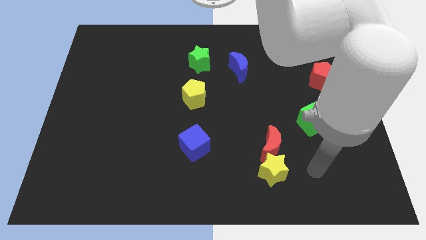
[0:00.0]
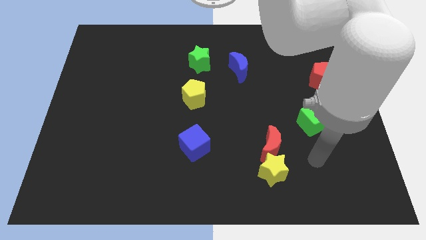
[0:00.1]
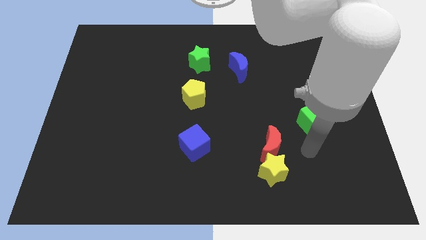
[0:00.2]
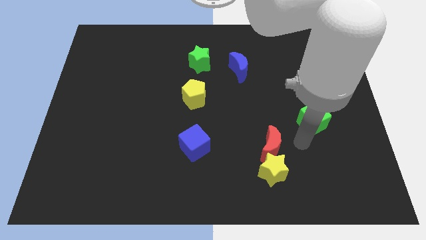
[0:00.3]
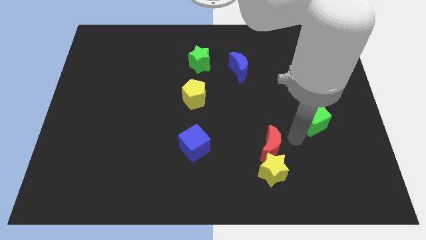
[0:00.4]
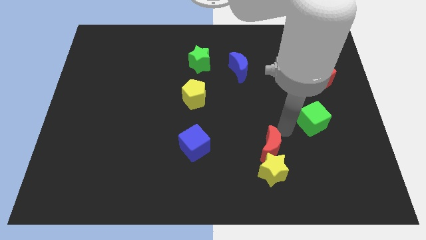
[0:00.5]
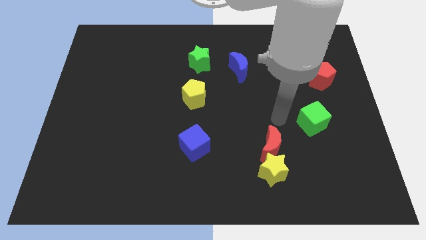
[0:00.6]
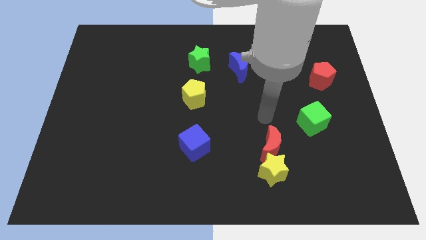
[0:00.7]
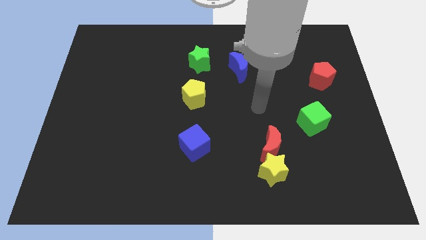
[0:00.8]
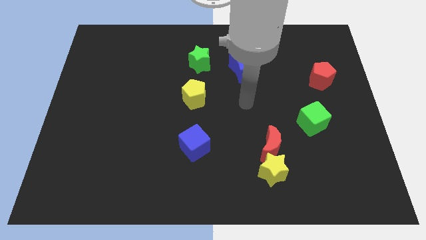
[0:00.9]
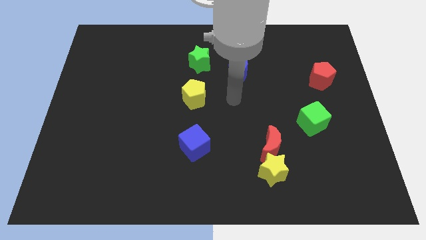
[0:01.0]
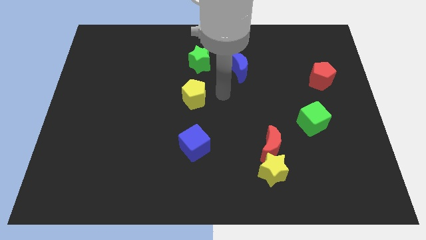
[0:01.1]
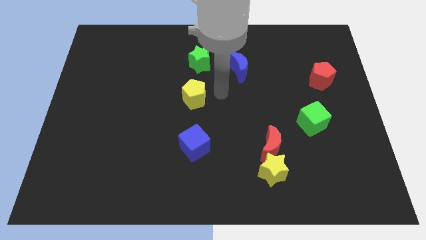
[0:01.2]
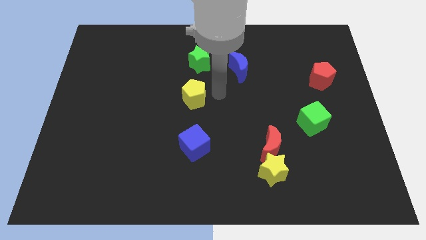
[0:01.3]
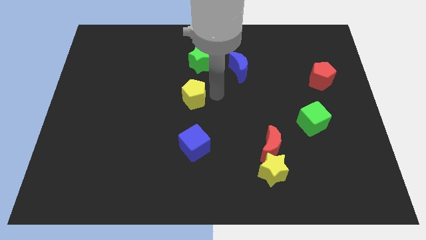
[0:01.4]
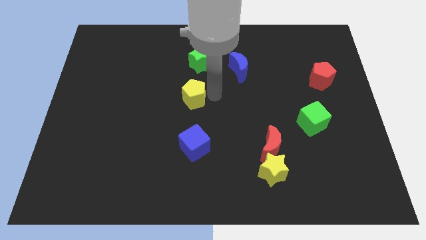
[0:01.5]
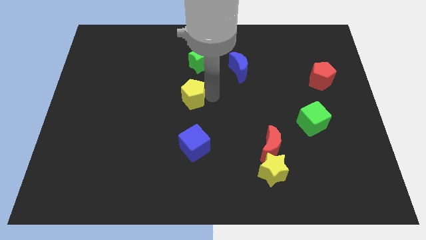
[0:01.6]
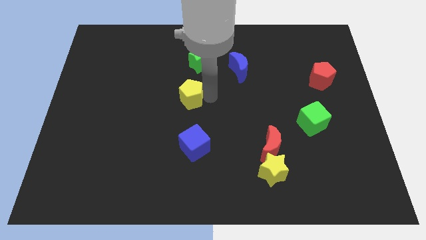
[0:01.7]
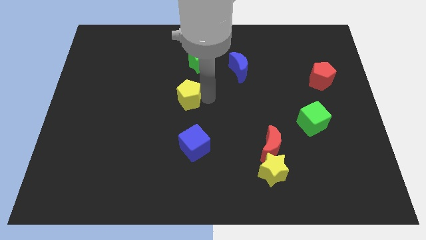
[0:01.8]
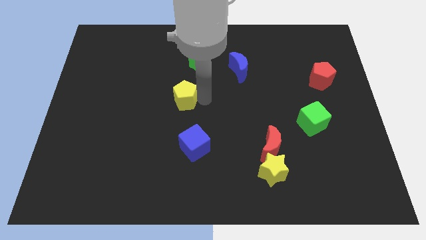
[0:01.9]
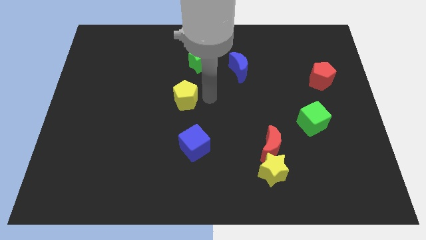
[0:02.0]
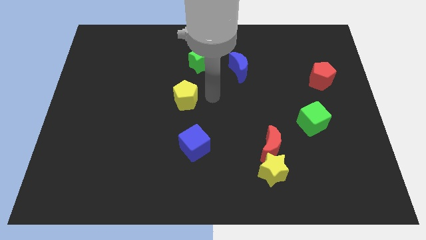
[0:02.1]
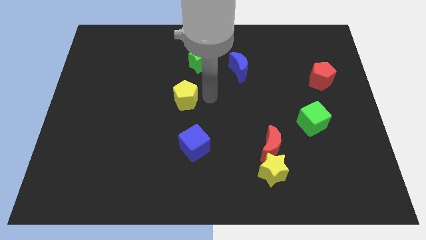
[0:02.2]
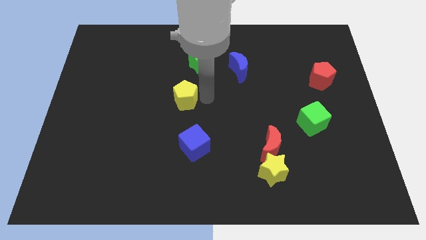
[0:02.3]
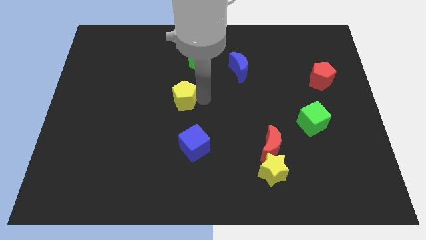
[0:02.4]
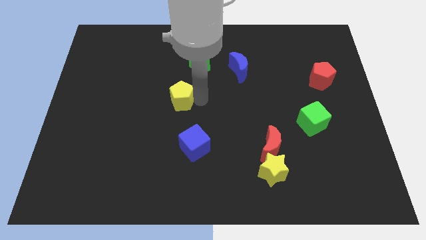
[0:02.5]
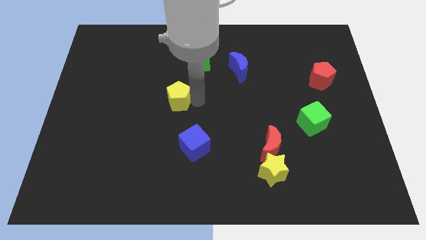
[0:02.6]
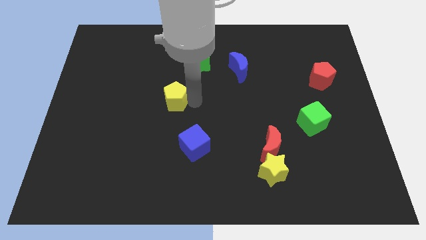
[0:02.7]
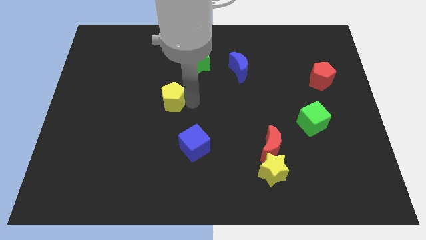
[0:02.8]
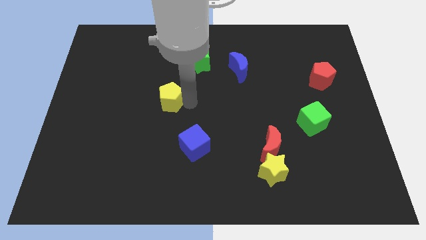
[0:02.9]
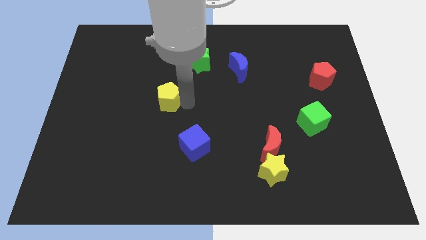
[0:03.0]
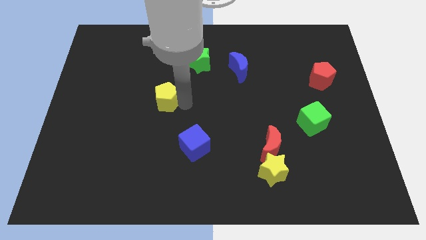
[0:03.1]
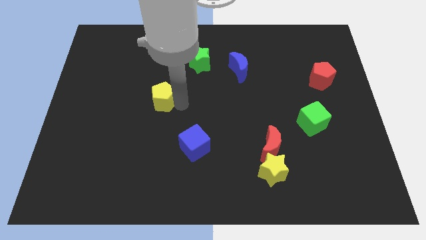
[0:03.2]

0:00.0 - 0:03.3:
move the yellow pentagon slightly left

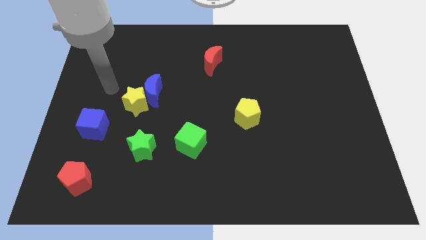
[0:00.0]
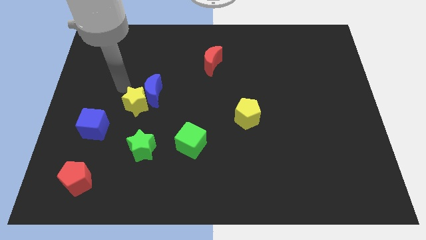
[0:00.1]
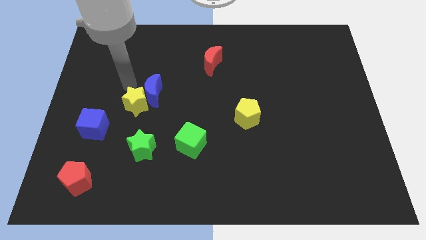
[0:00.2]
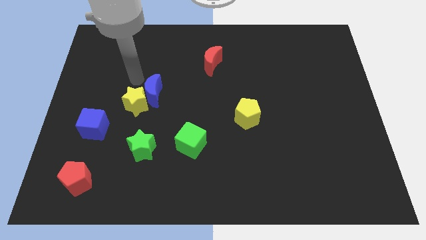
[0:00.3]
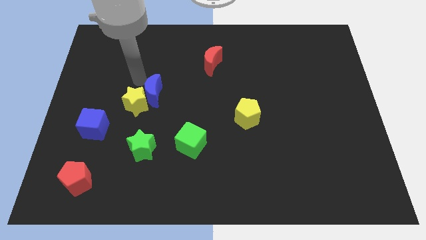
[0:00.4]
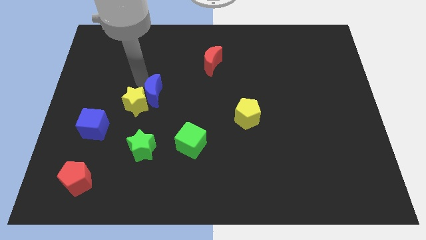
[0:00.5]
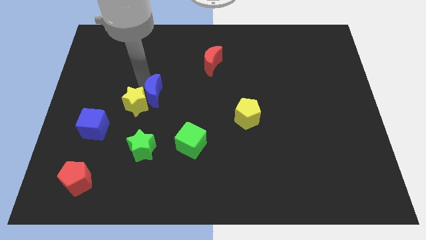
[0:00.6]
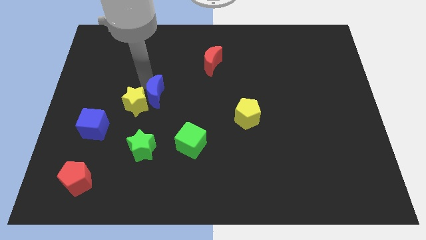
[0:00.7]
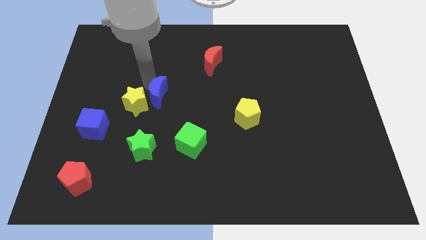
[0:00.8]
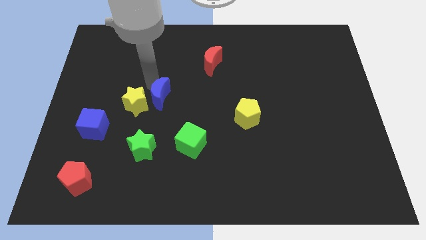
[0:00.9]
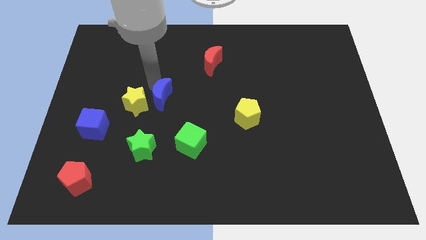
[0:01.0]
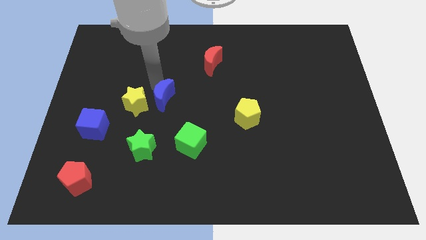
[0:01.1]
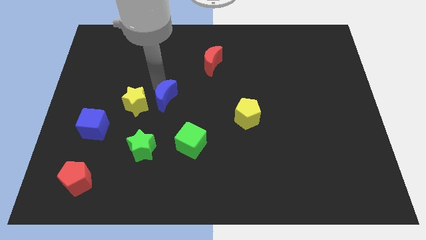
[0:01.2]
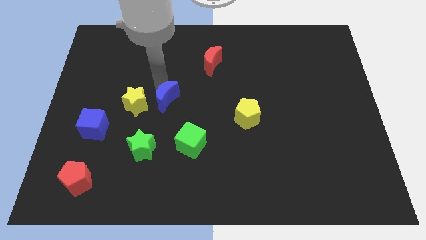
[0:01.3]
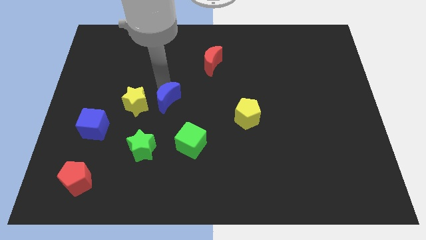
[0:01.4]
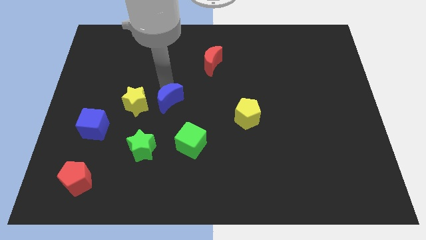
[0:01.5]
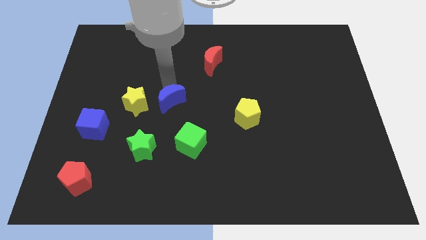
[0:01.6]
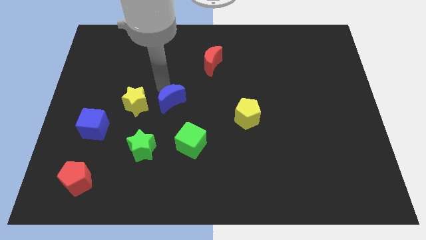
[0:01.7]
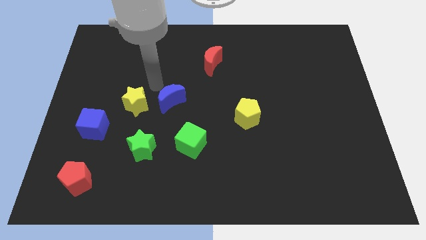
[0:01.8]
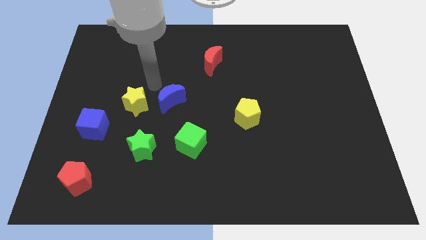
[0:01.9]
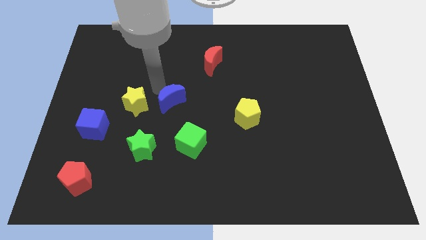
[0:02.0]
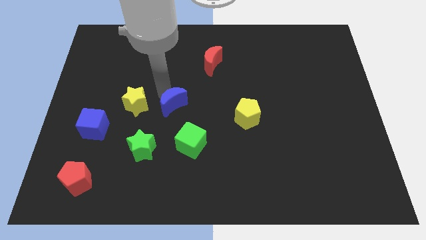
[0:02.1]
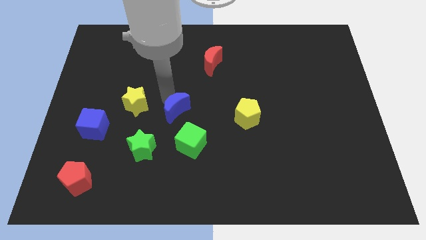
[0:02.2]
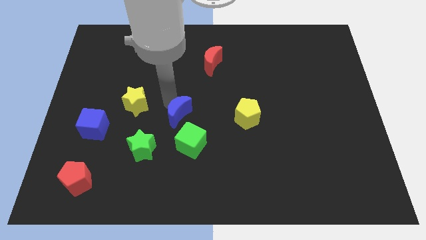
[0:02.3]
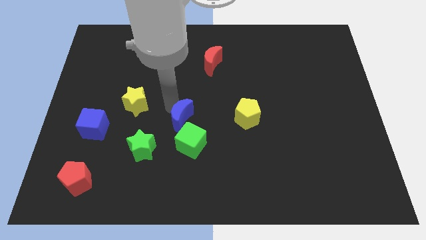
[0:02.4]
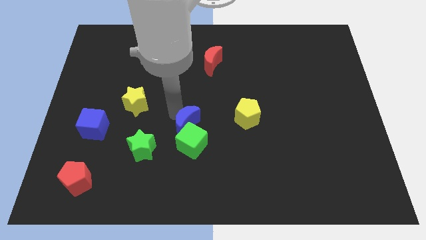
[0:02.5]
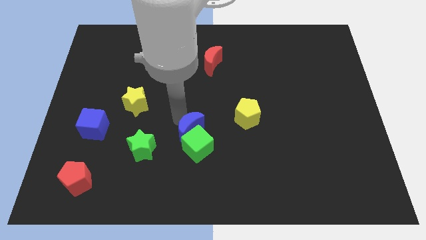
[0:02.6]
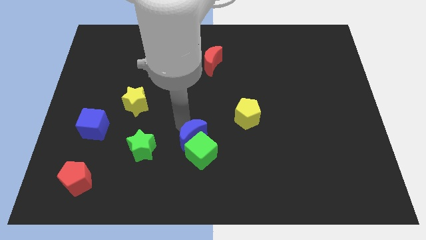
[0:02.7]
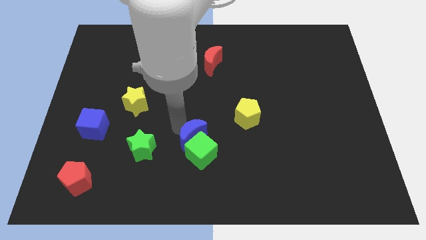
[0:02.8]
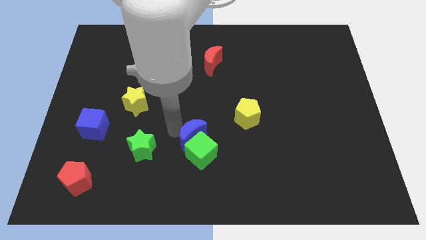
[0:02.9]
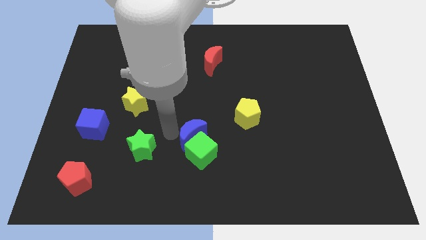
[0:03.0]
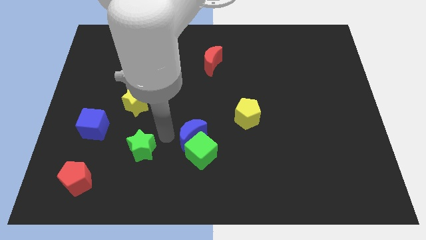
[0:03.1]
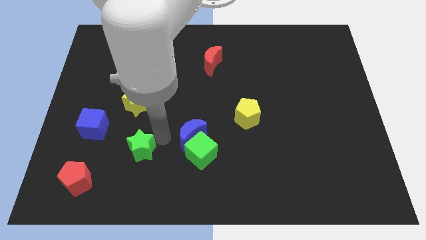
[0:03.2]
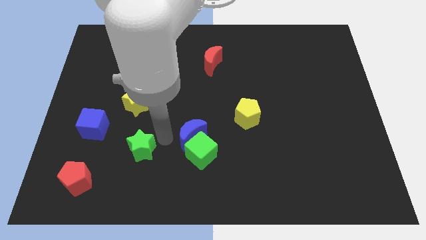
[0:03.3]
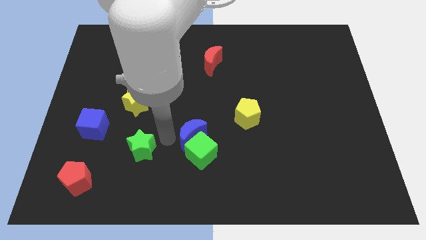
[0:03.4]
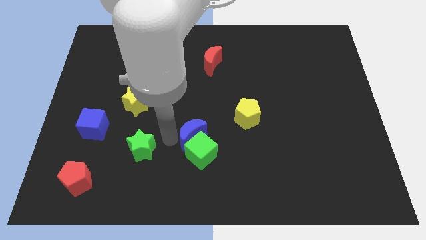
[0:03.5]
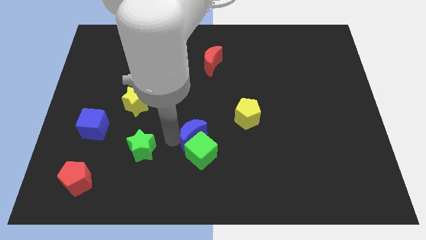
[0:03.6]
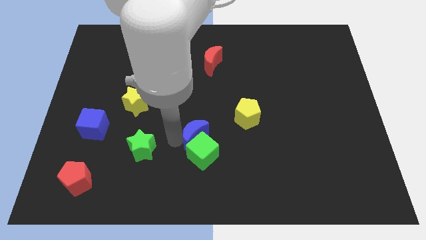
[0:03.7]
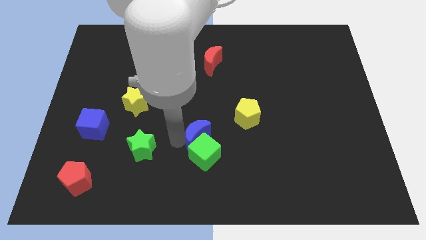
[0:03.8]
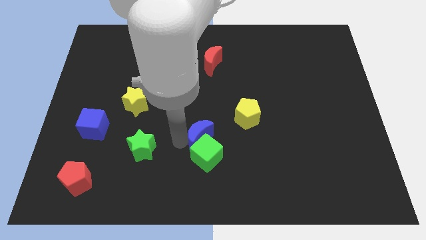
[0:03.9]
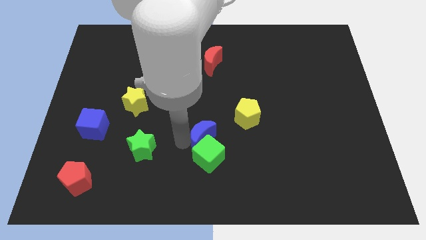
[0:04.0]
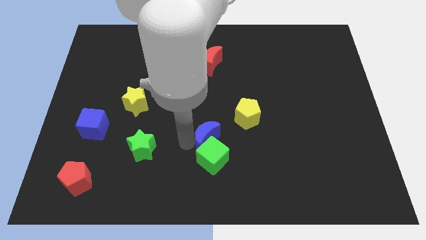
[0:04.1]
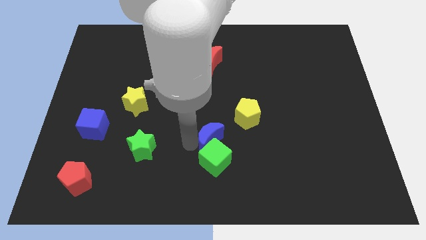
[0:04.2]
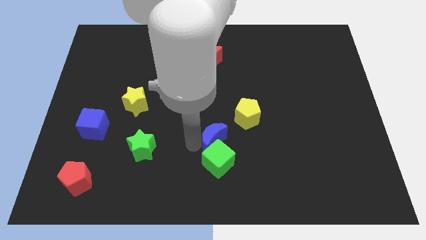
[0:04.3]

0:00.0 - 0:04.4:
slide the blue moon down and then right

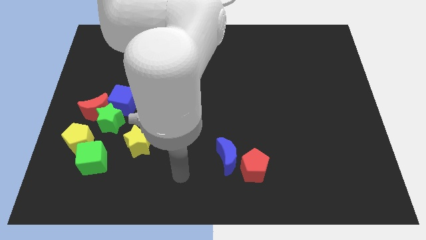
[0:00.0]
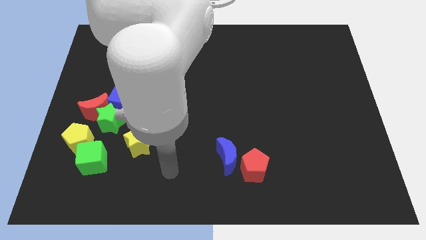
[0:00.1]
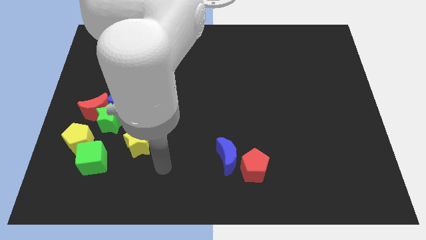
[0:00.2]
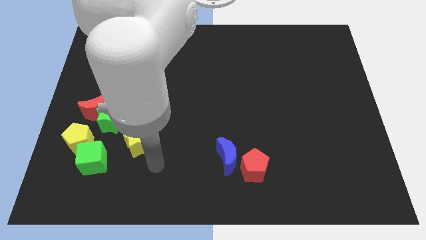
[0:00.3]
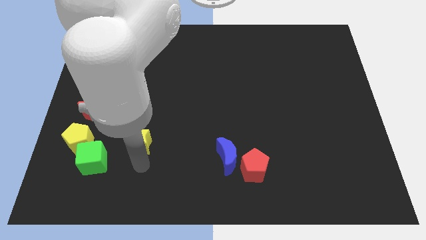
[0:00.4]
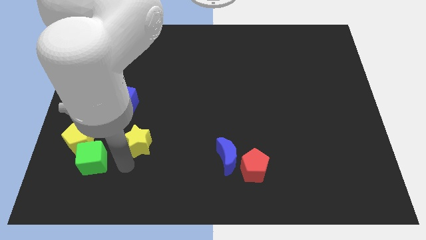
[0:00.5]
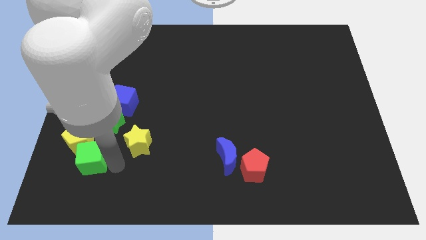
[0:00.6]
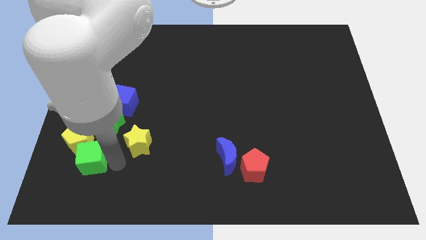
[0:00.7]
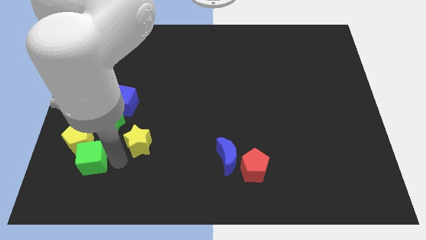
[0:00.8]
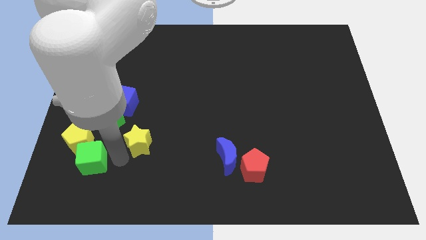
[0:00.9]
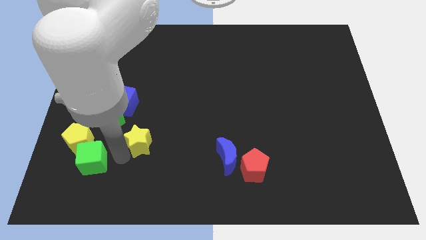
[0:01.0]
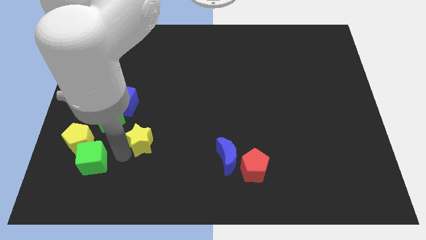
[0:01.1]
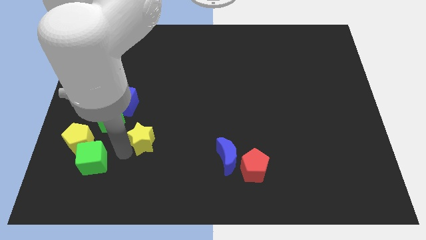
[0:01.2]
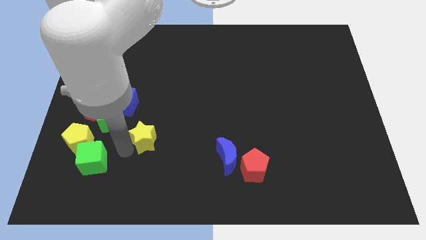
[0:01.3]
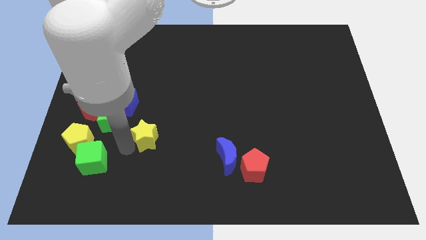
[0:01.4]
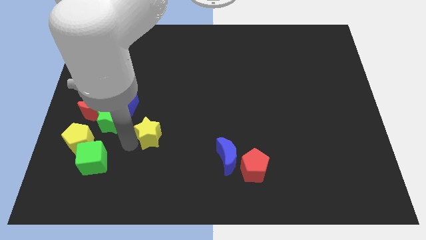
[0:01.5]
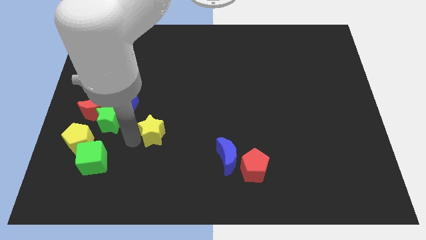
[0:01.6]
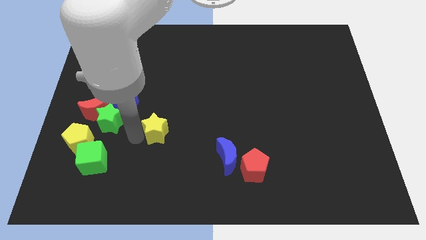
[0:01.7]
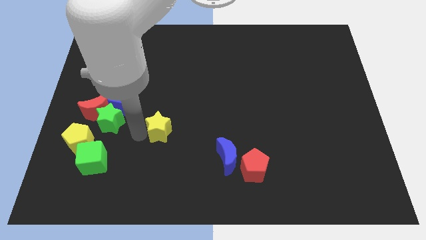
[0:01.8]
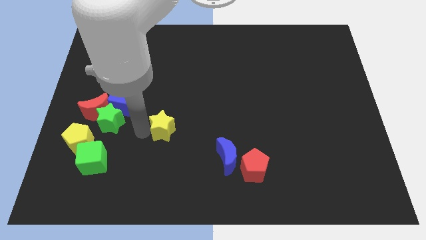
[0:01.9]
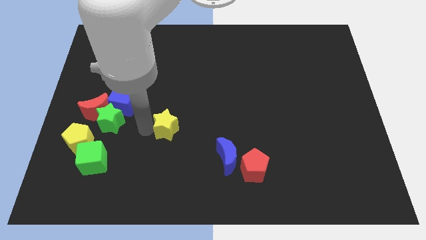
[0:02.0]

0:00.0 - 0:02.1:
move the yellow star a bit up and to the right diagonally
